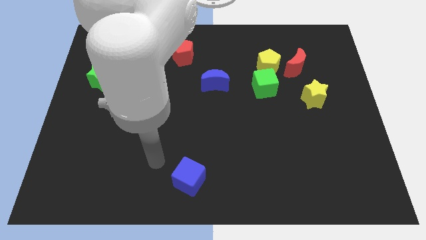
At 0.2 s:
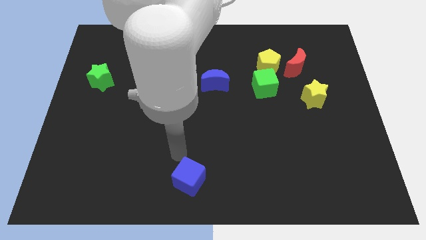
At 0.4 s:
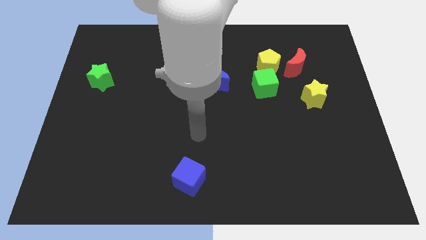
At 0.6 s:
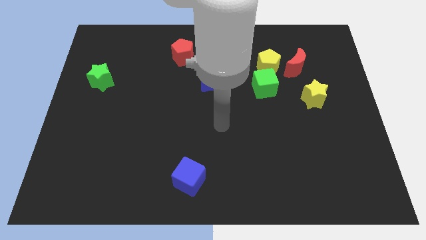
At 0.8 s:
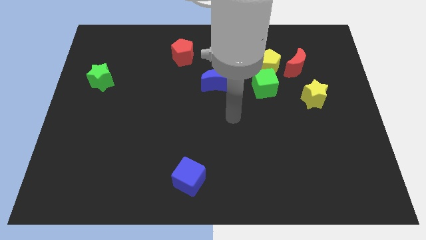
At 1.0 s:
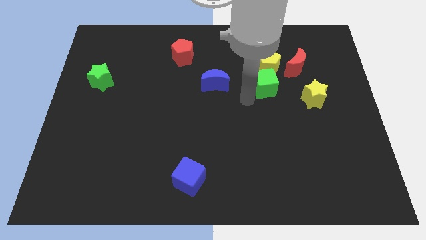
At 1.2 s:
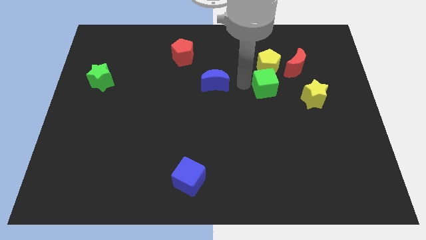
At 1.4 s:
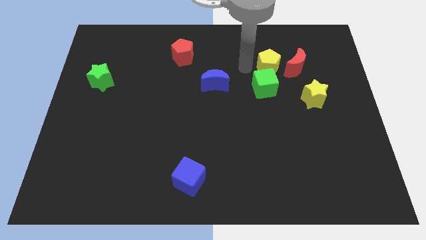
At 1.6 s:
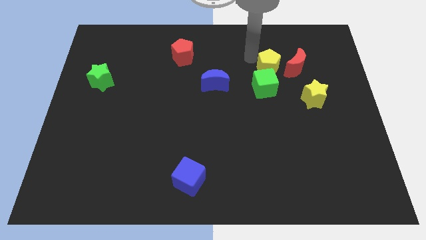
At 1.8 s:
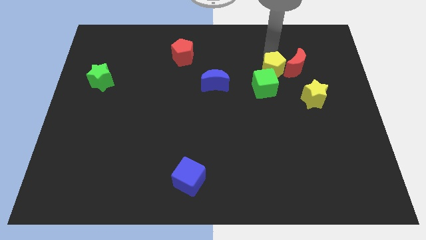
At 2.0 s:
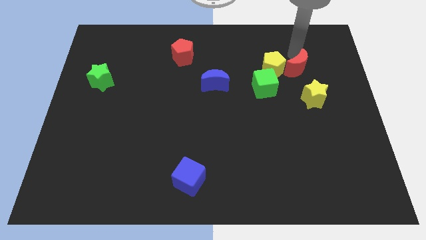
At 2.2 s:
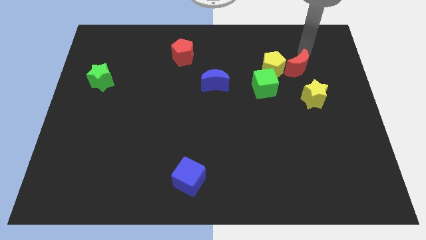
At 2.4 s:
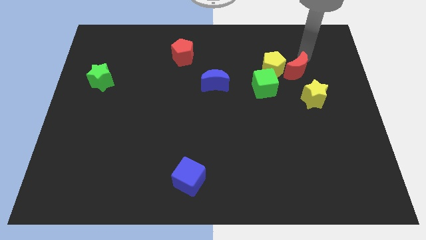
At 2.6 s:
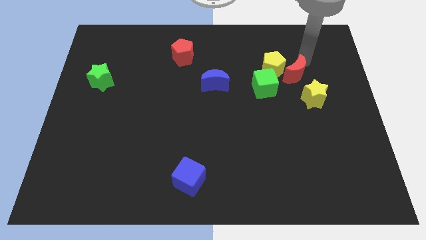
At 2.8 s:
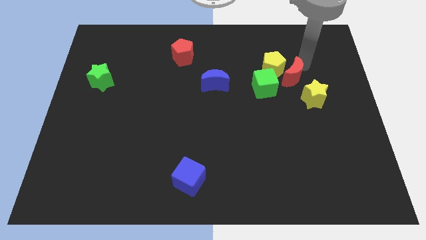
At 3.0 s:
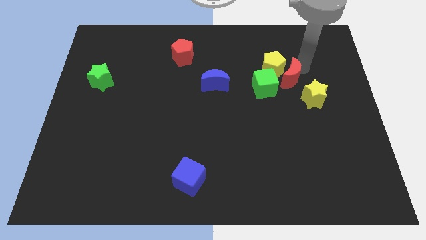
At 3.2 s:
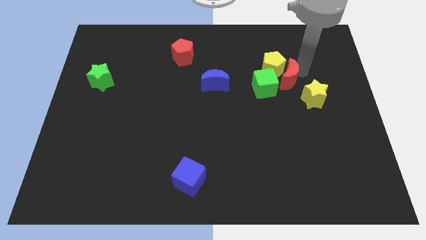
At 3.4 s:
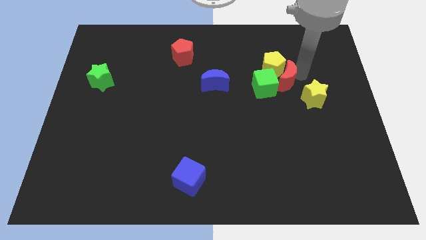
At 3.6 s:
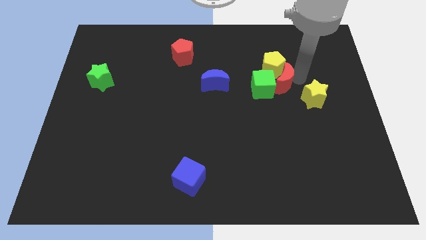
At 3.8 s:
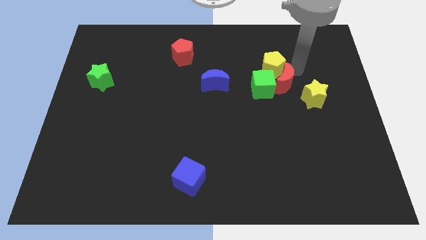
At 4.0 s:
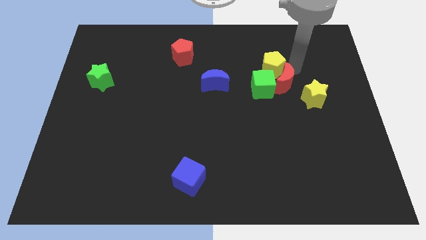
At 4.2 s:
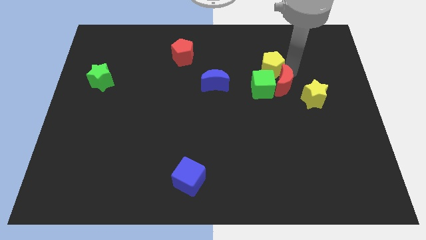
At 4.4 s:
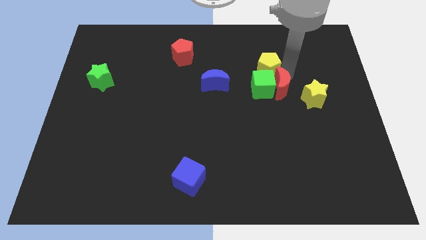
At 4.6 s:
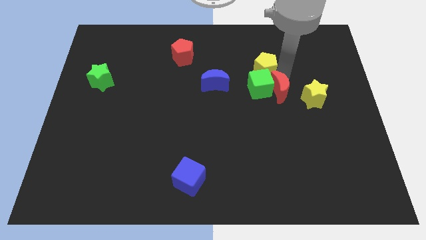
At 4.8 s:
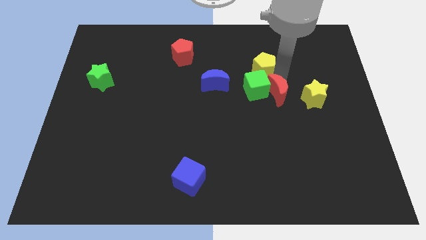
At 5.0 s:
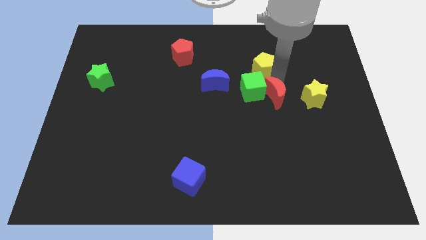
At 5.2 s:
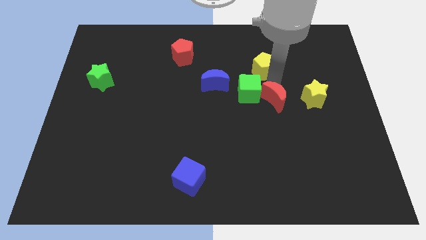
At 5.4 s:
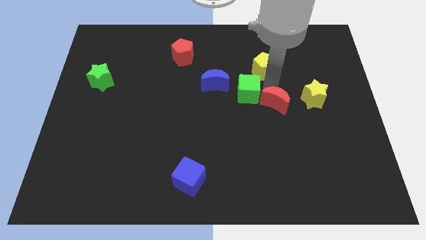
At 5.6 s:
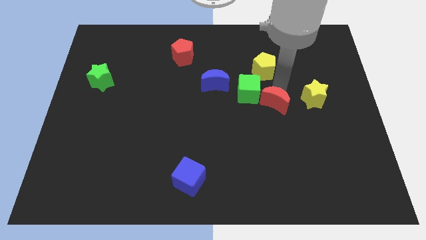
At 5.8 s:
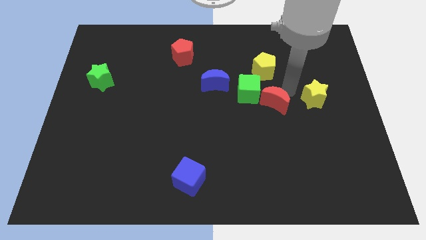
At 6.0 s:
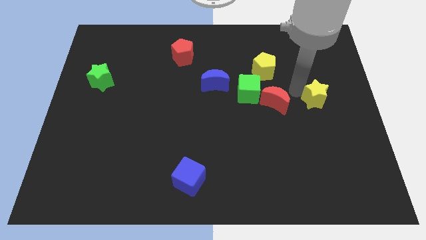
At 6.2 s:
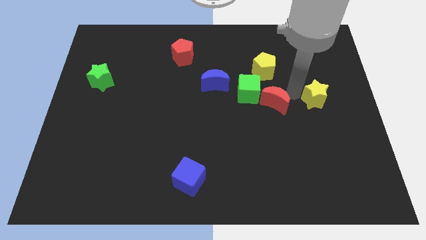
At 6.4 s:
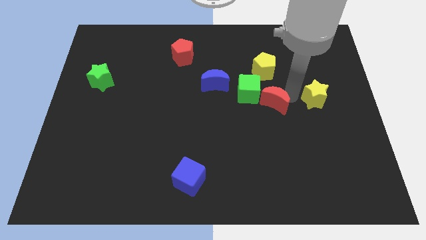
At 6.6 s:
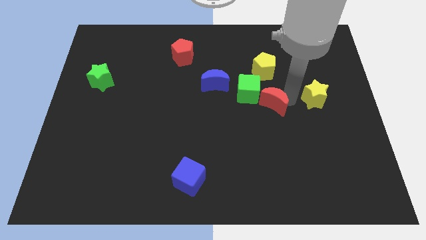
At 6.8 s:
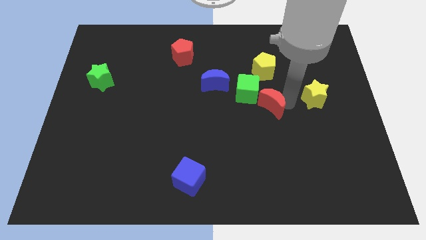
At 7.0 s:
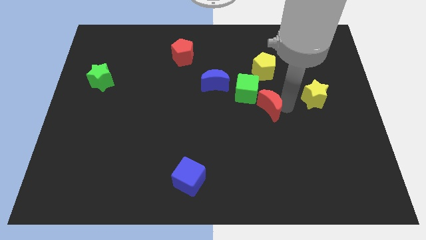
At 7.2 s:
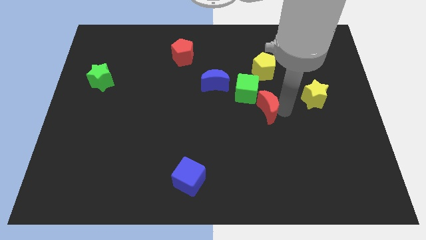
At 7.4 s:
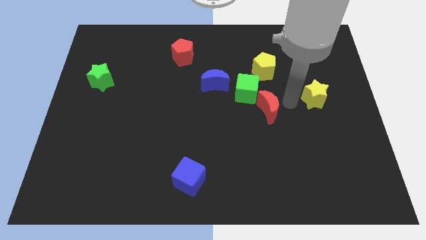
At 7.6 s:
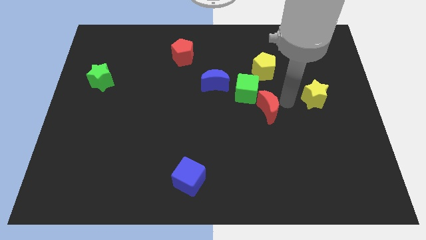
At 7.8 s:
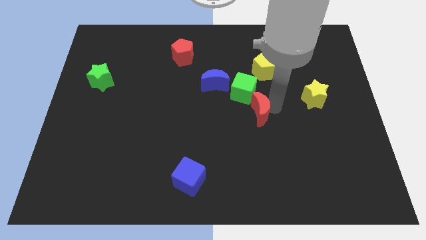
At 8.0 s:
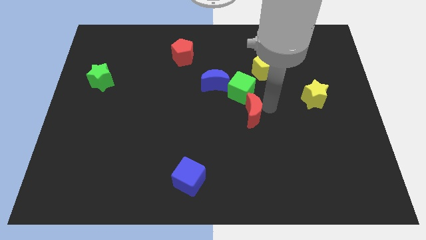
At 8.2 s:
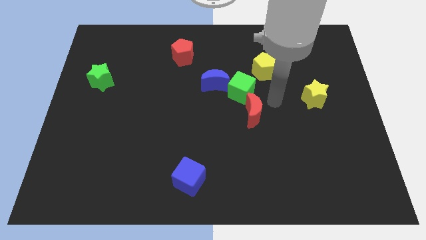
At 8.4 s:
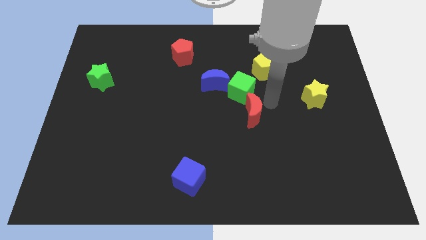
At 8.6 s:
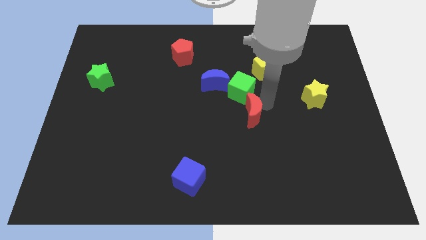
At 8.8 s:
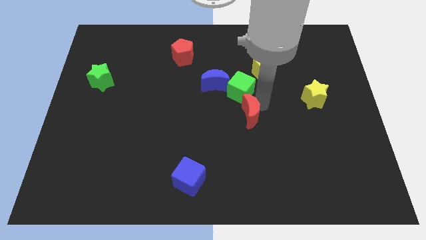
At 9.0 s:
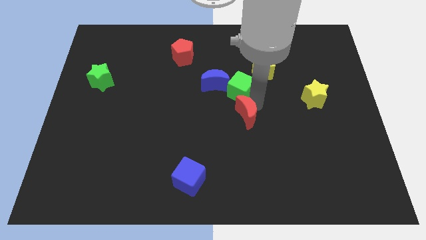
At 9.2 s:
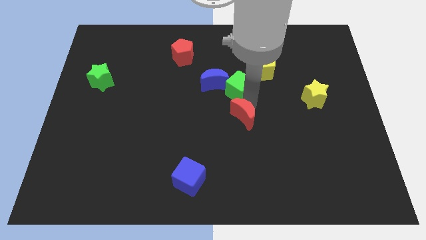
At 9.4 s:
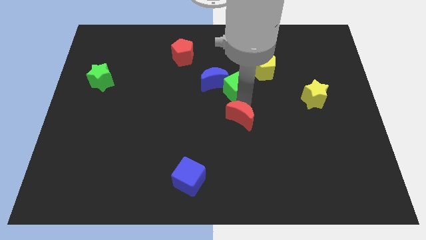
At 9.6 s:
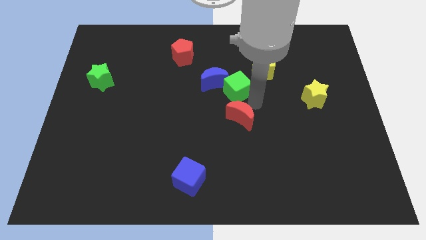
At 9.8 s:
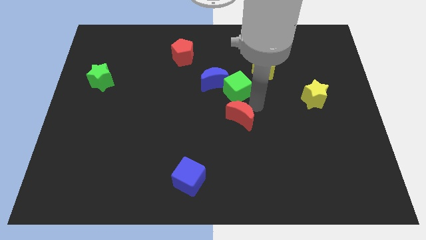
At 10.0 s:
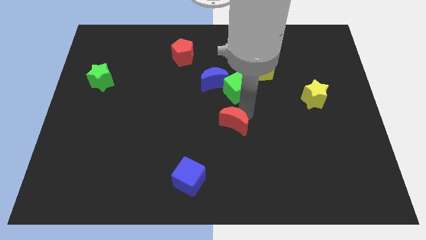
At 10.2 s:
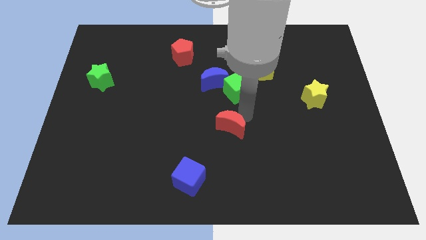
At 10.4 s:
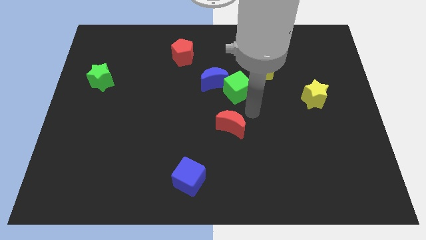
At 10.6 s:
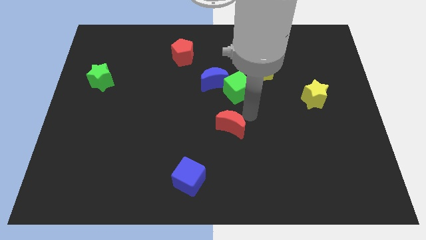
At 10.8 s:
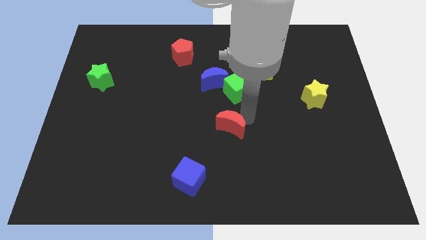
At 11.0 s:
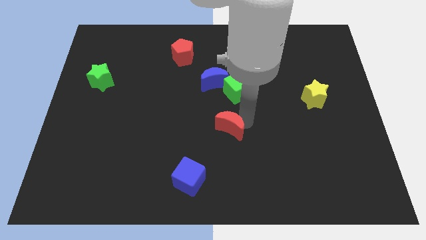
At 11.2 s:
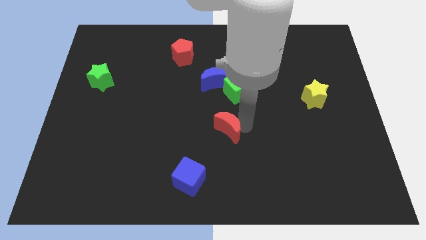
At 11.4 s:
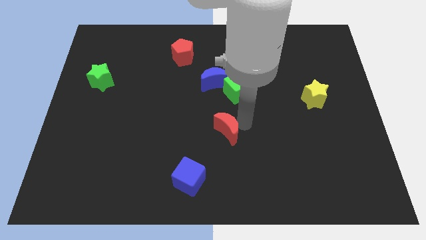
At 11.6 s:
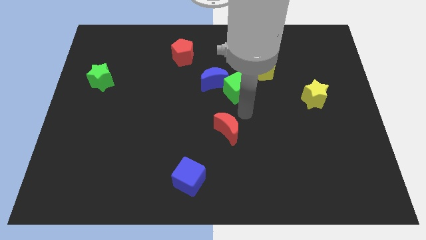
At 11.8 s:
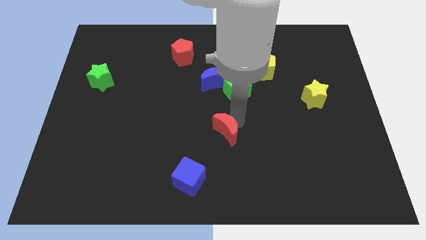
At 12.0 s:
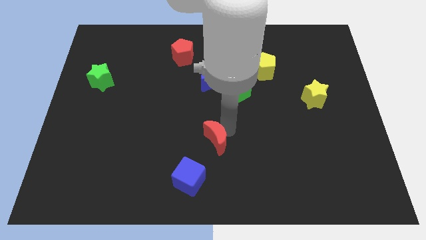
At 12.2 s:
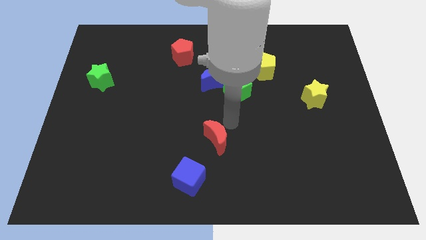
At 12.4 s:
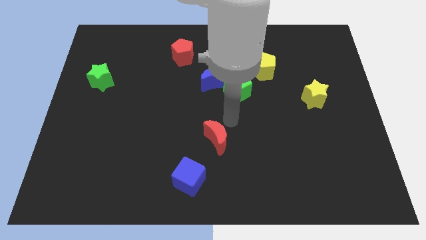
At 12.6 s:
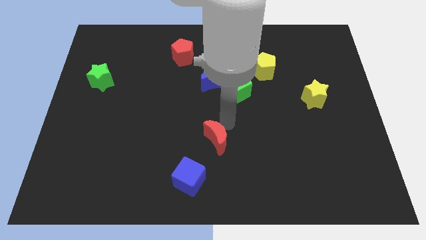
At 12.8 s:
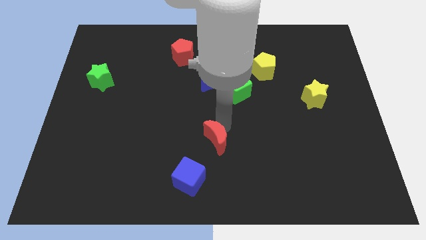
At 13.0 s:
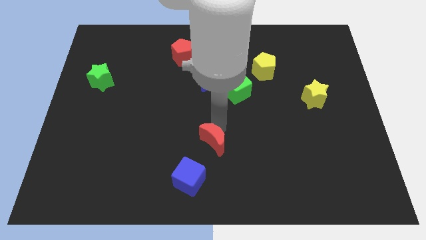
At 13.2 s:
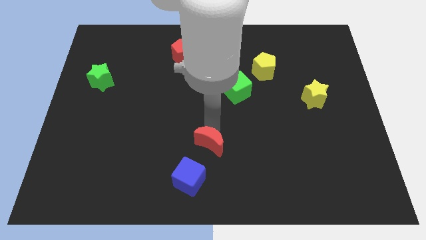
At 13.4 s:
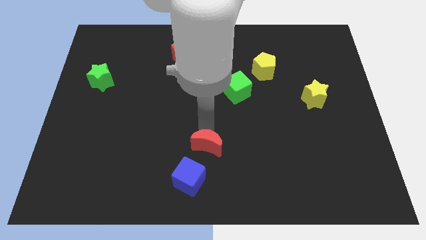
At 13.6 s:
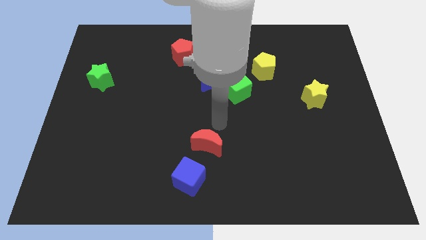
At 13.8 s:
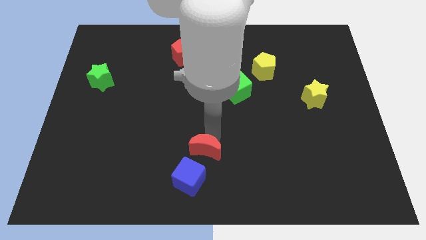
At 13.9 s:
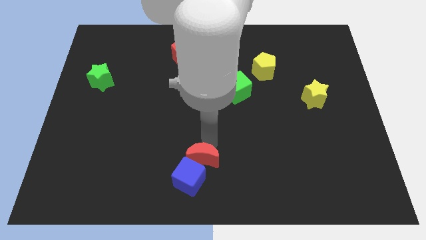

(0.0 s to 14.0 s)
push the red moon to the blue cube
